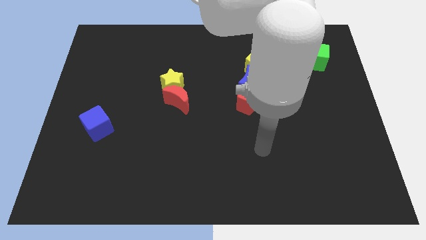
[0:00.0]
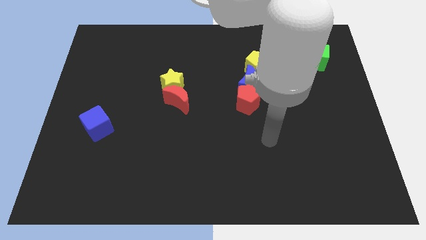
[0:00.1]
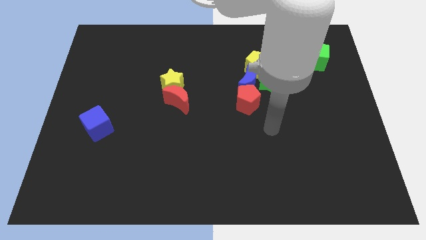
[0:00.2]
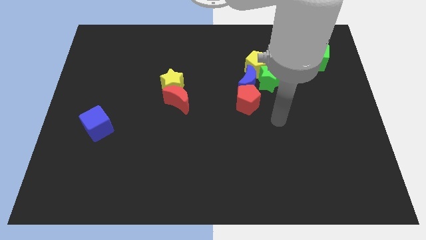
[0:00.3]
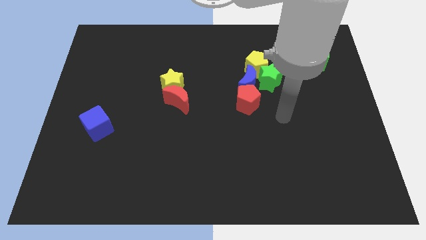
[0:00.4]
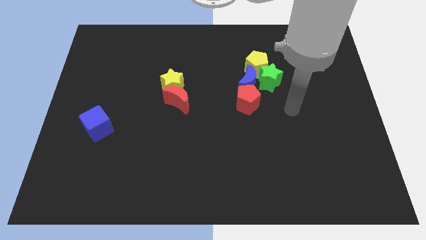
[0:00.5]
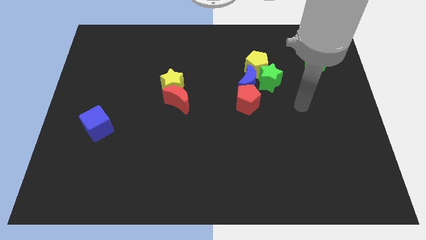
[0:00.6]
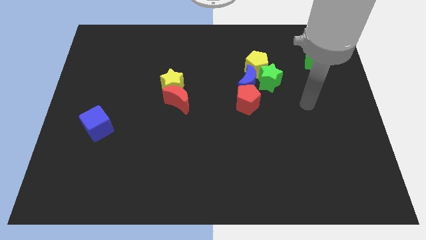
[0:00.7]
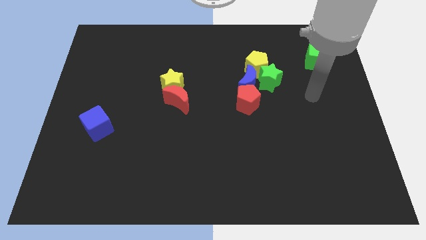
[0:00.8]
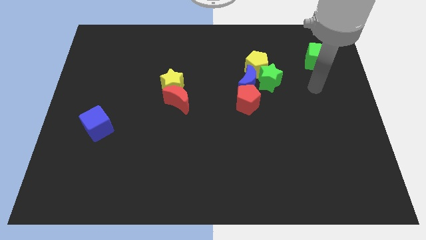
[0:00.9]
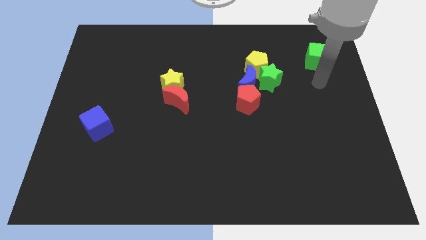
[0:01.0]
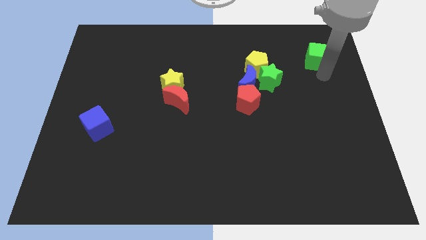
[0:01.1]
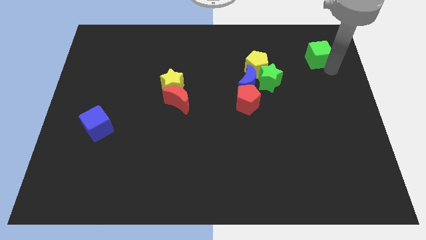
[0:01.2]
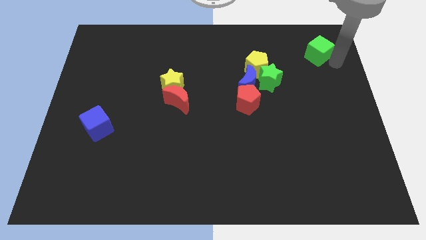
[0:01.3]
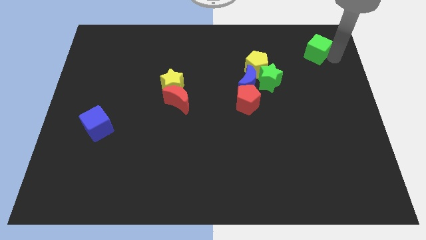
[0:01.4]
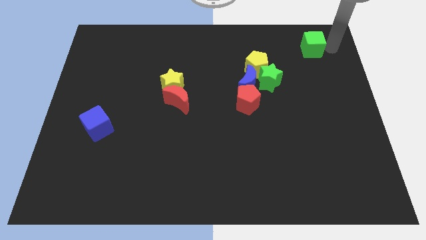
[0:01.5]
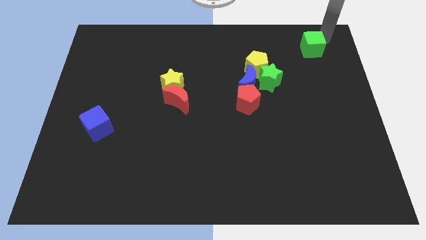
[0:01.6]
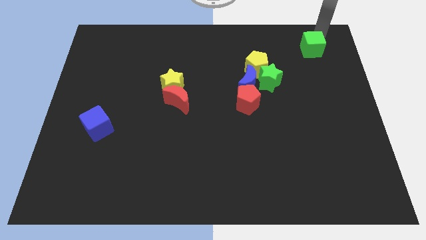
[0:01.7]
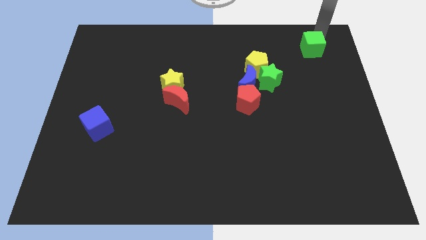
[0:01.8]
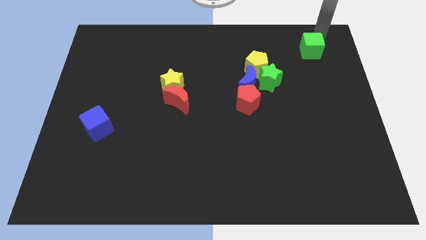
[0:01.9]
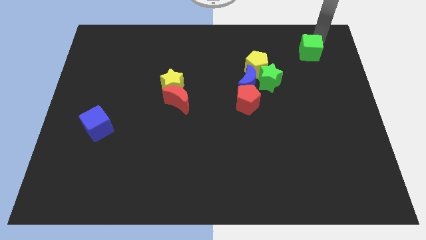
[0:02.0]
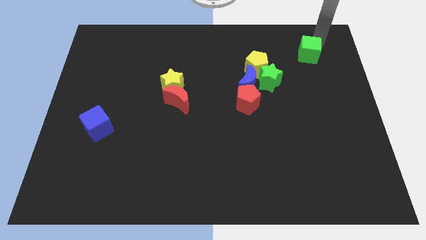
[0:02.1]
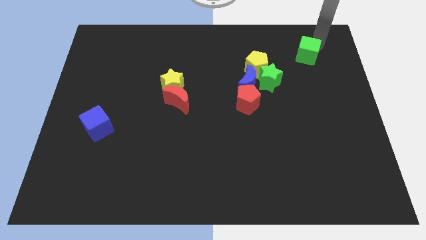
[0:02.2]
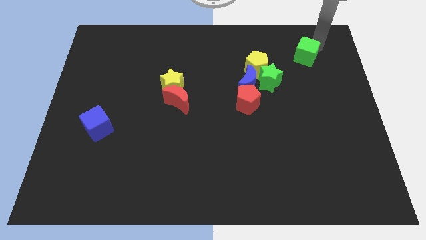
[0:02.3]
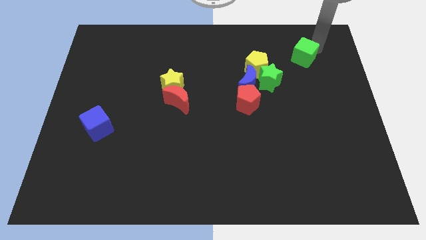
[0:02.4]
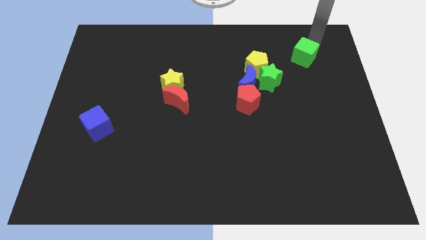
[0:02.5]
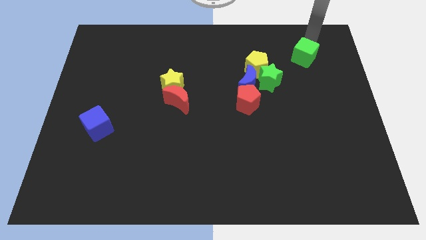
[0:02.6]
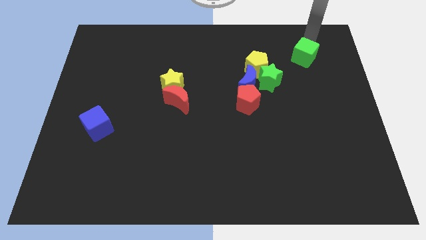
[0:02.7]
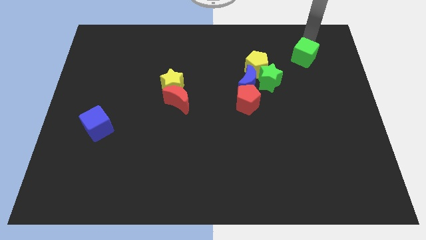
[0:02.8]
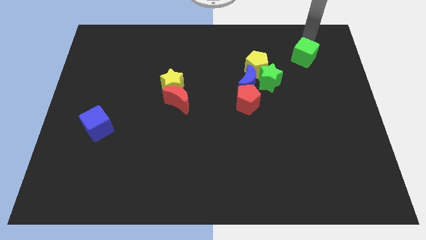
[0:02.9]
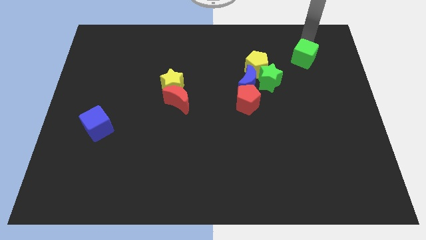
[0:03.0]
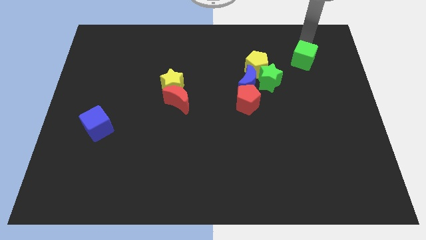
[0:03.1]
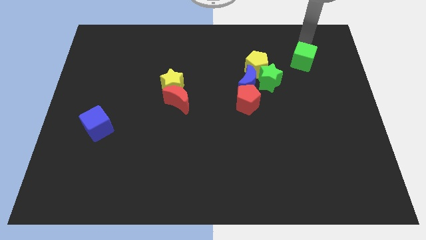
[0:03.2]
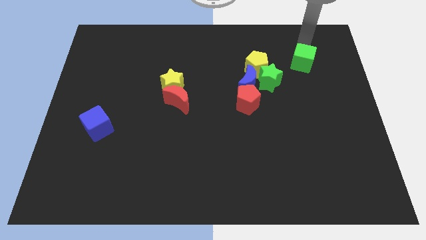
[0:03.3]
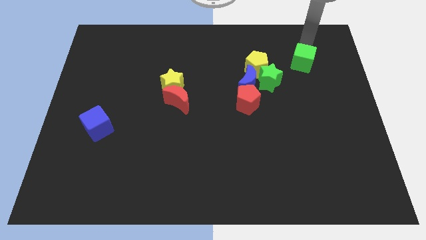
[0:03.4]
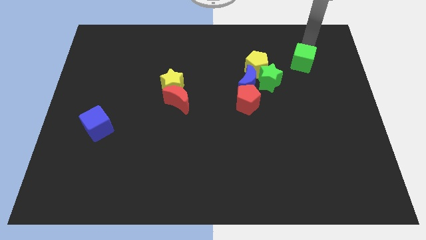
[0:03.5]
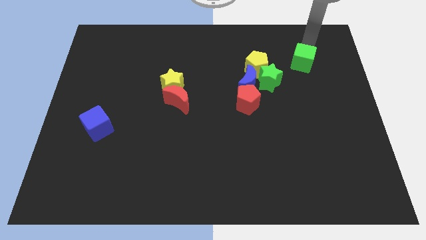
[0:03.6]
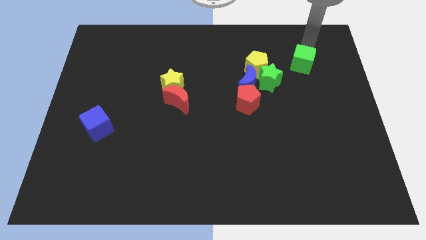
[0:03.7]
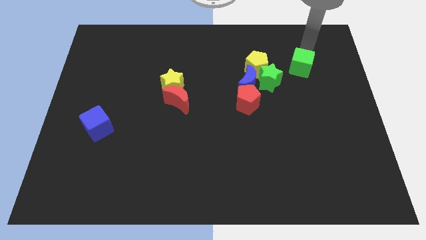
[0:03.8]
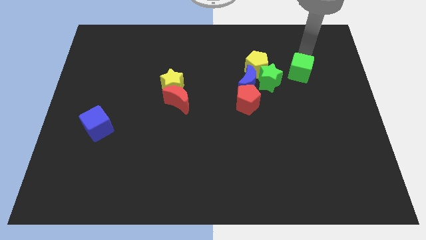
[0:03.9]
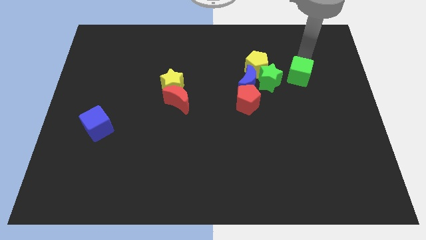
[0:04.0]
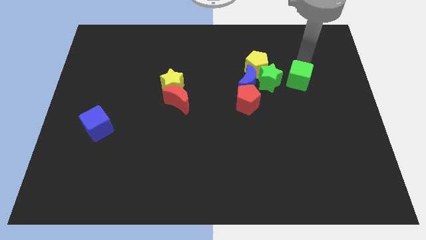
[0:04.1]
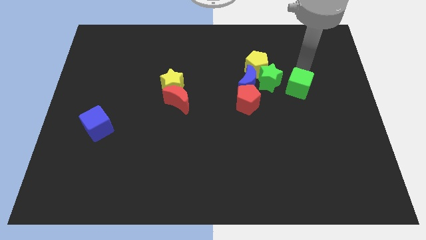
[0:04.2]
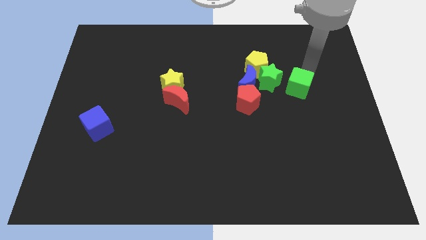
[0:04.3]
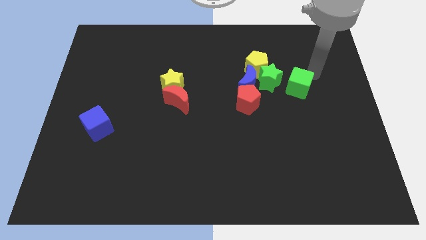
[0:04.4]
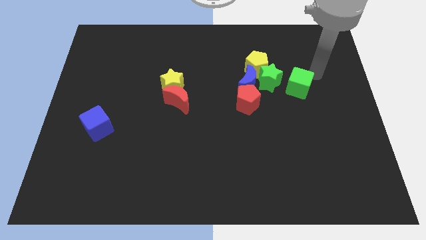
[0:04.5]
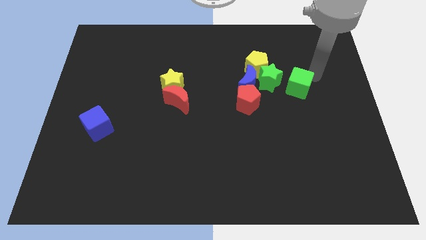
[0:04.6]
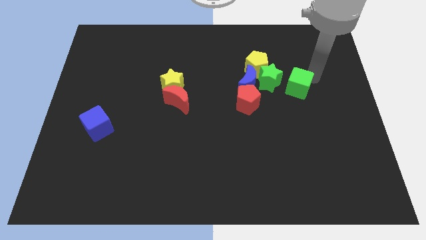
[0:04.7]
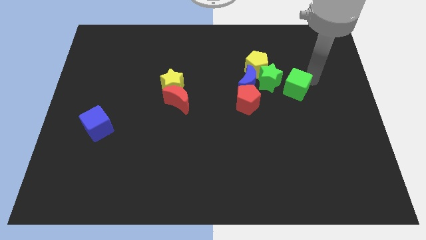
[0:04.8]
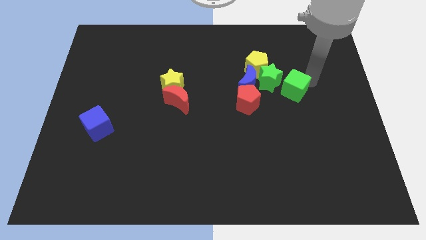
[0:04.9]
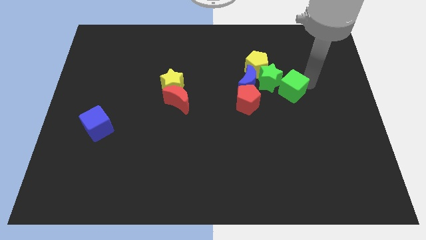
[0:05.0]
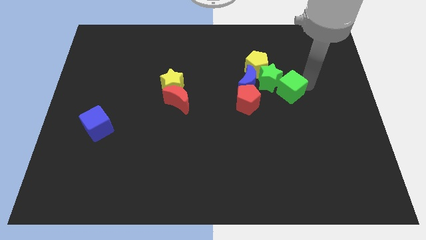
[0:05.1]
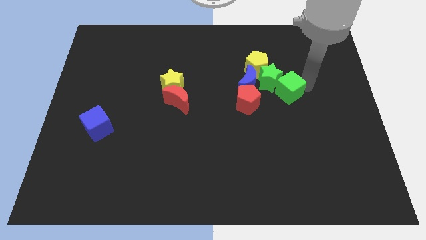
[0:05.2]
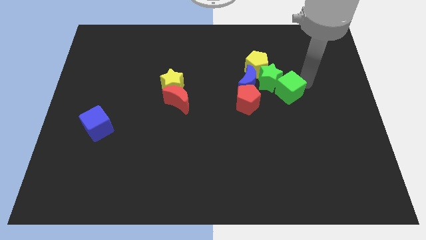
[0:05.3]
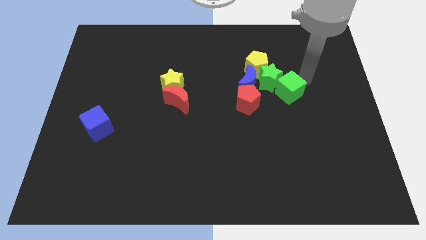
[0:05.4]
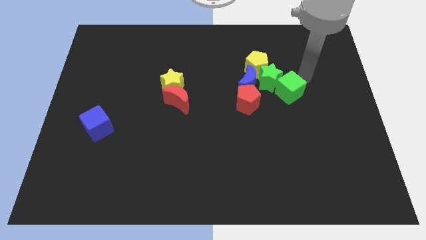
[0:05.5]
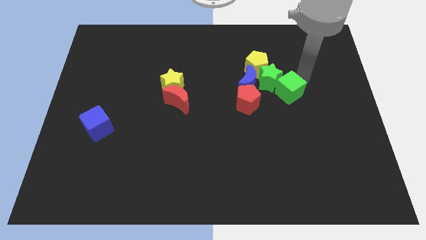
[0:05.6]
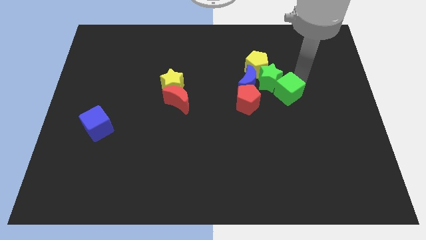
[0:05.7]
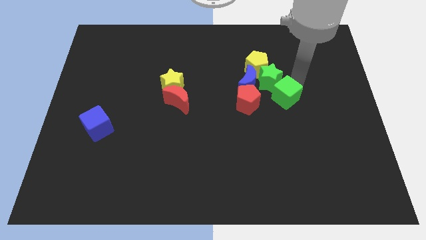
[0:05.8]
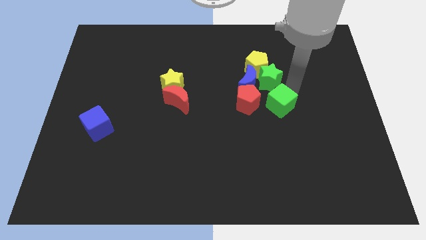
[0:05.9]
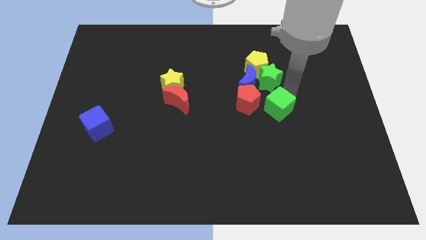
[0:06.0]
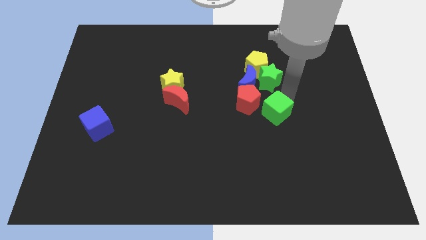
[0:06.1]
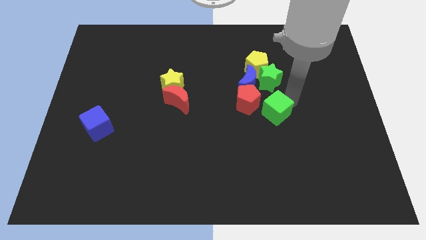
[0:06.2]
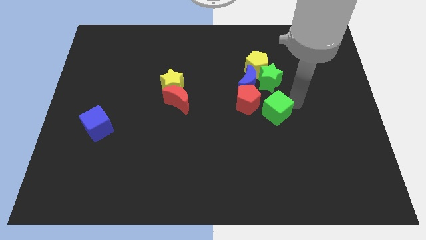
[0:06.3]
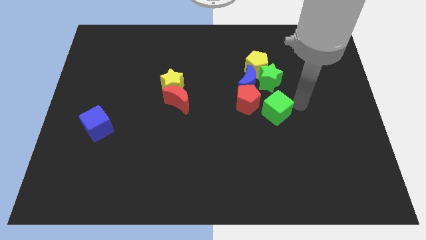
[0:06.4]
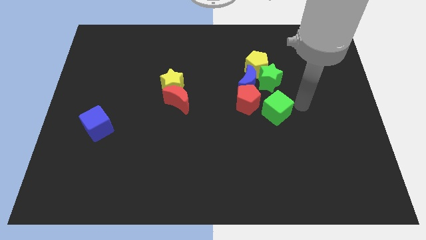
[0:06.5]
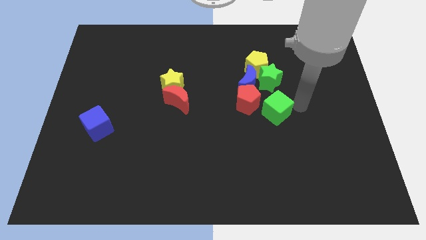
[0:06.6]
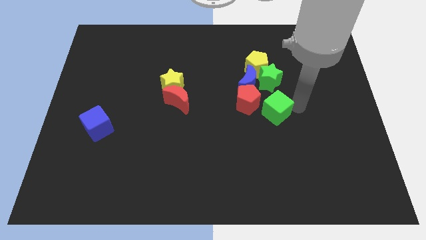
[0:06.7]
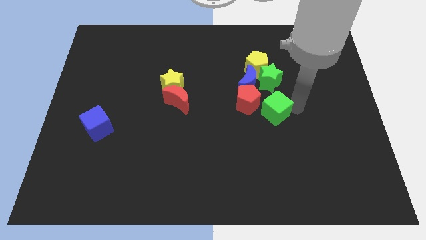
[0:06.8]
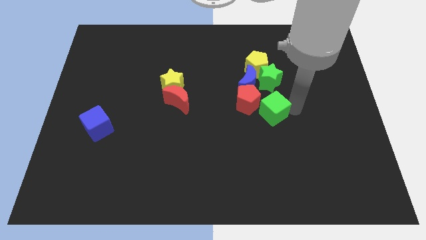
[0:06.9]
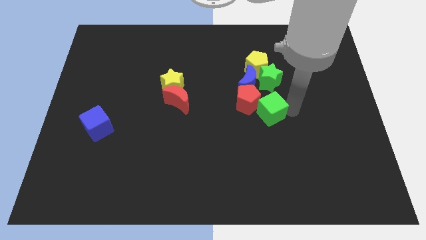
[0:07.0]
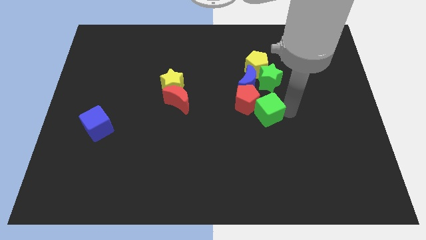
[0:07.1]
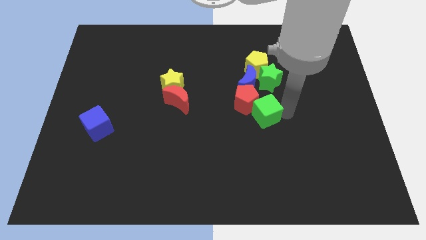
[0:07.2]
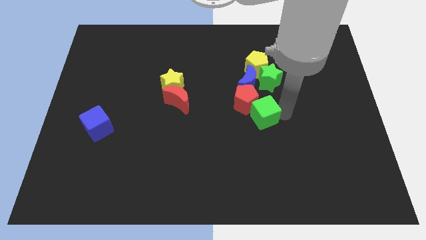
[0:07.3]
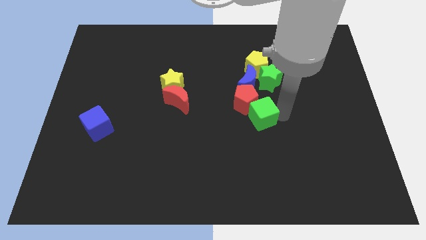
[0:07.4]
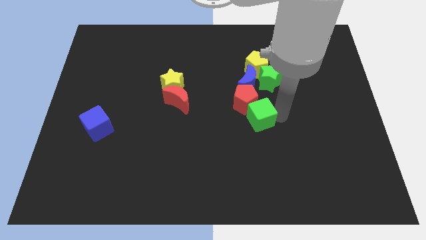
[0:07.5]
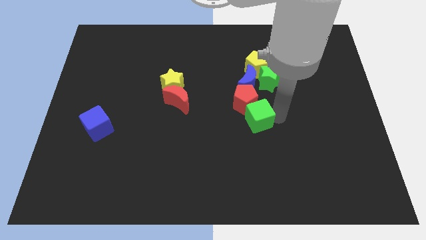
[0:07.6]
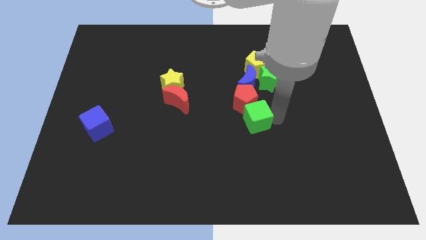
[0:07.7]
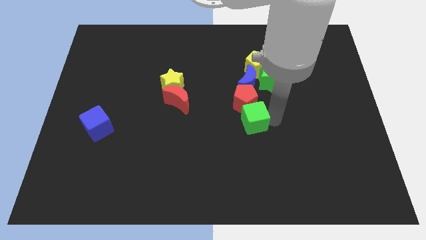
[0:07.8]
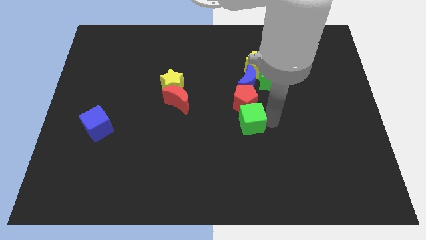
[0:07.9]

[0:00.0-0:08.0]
push the green cube to the bottom left side of the red pentagon
